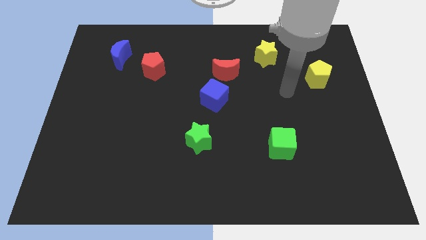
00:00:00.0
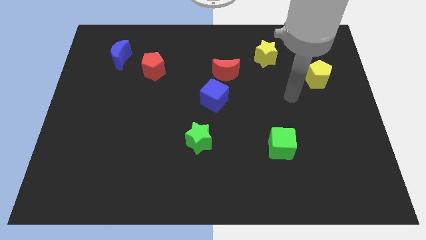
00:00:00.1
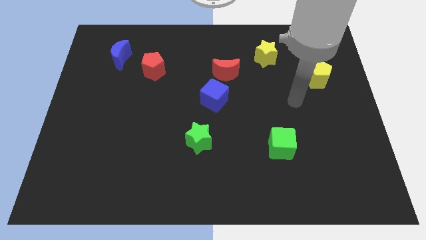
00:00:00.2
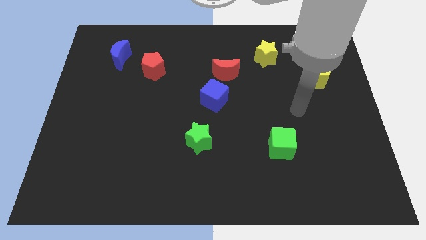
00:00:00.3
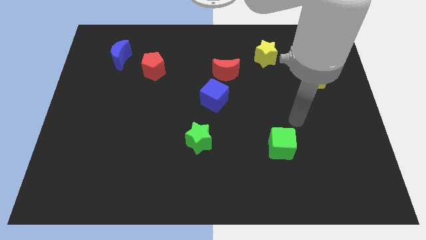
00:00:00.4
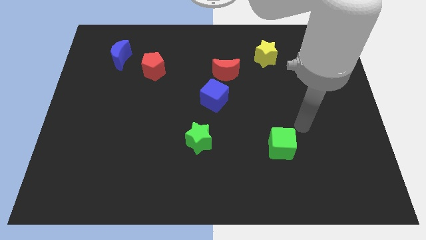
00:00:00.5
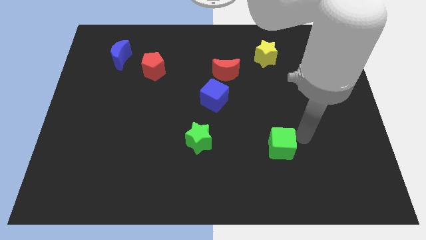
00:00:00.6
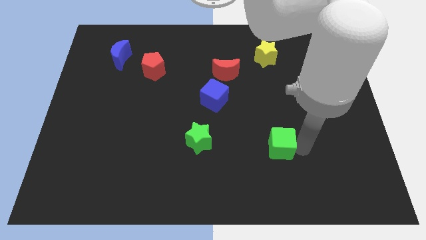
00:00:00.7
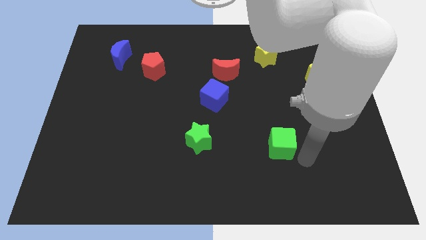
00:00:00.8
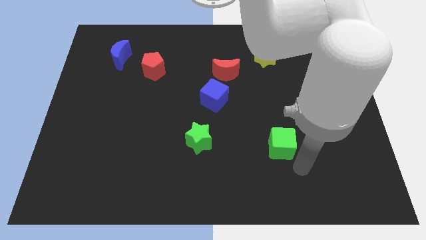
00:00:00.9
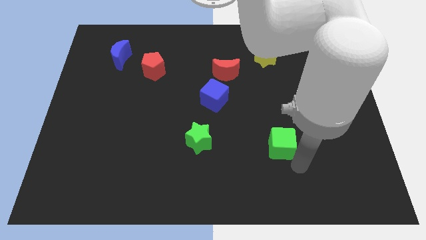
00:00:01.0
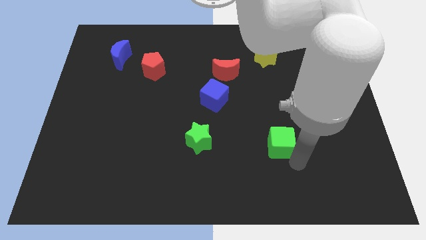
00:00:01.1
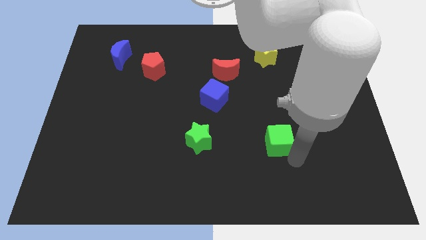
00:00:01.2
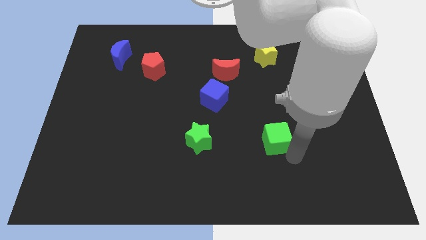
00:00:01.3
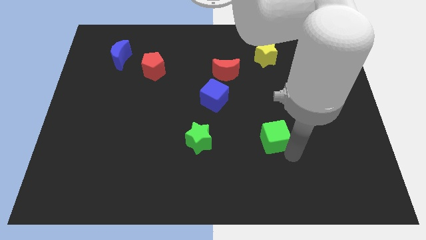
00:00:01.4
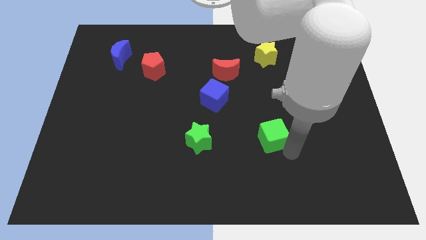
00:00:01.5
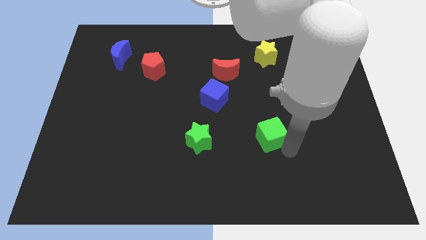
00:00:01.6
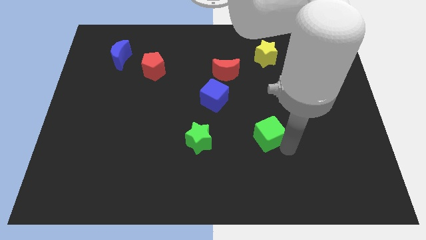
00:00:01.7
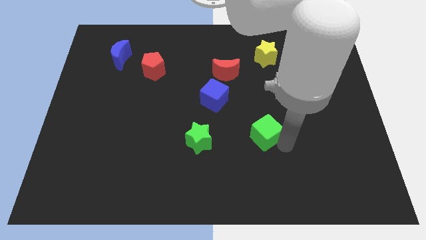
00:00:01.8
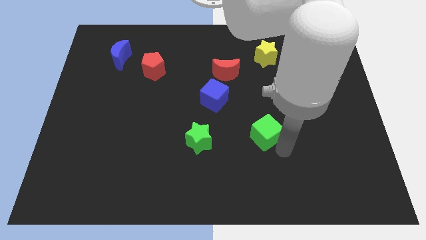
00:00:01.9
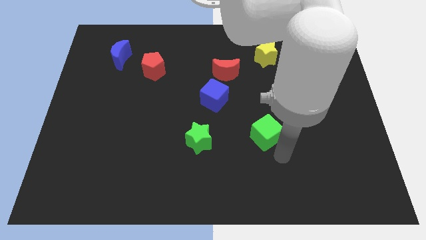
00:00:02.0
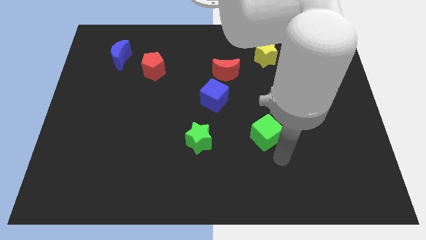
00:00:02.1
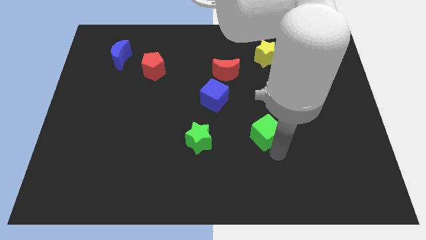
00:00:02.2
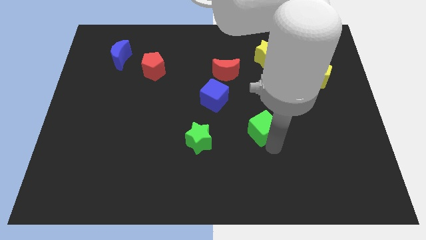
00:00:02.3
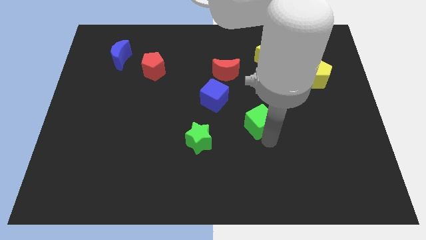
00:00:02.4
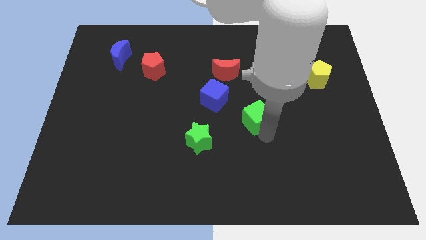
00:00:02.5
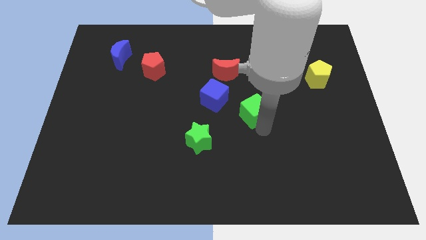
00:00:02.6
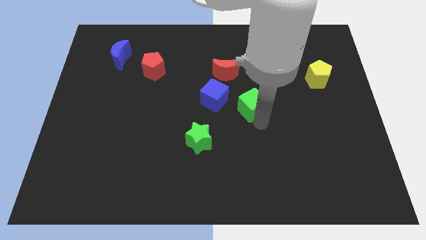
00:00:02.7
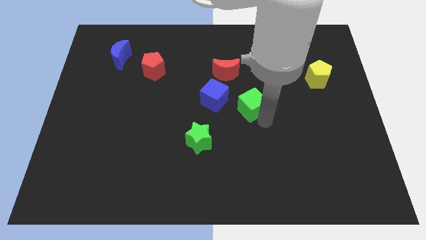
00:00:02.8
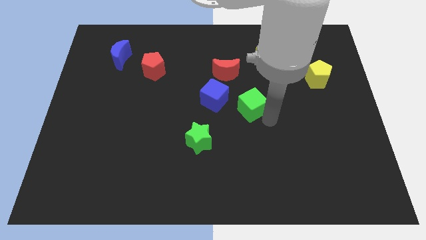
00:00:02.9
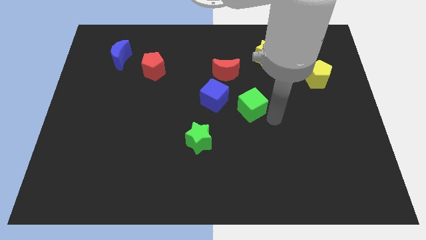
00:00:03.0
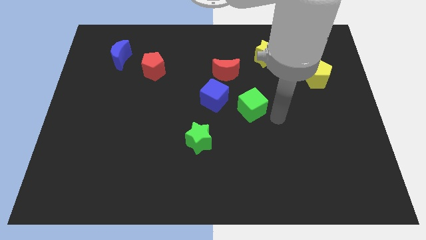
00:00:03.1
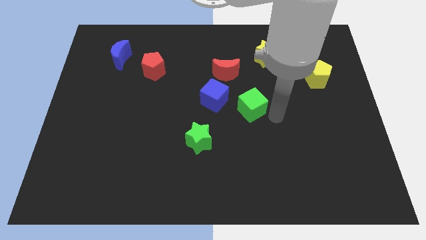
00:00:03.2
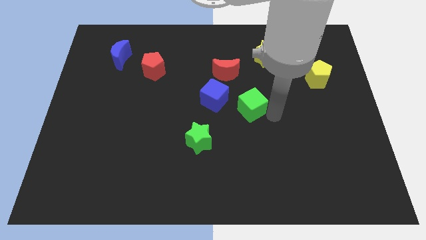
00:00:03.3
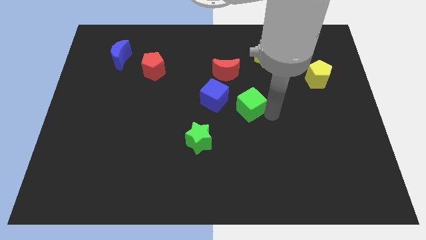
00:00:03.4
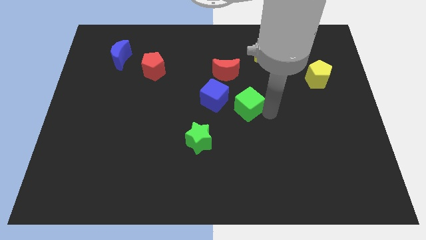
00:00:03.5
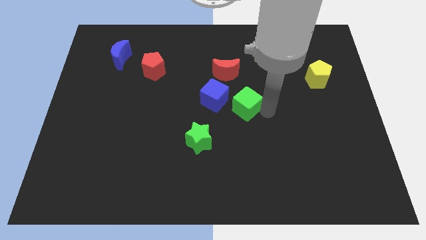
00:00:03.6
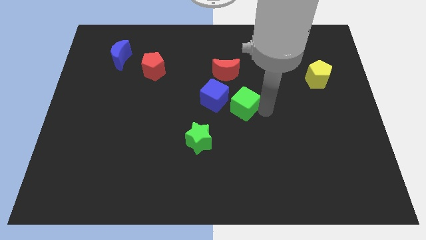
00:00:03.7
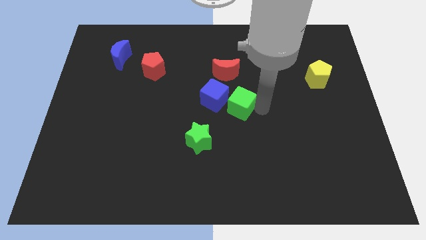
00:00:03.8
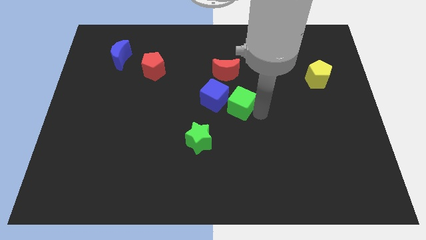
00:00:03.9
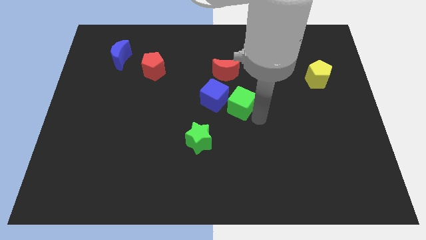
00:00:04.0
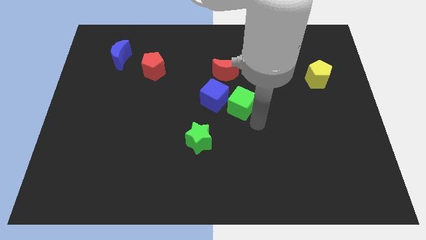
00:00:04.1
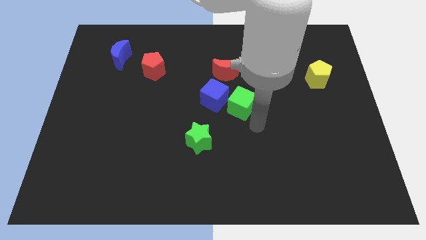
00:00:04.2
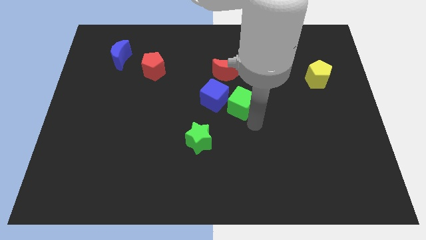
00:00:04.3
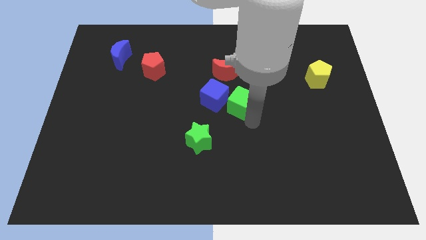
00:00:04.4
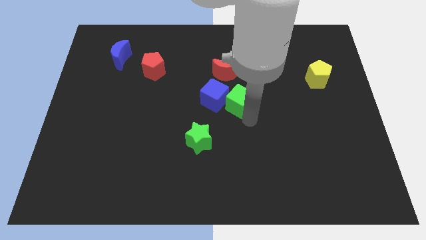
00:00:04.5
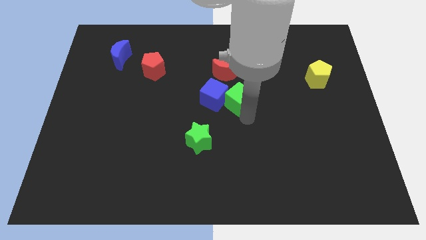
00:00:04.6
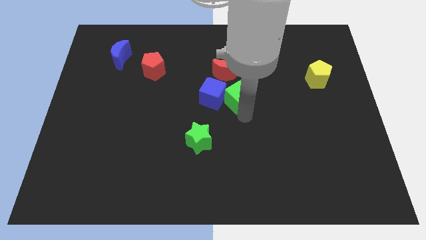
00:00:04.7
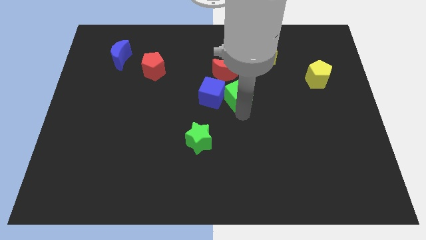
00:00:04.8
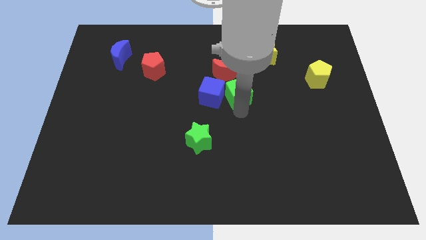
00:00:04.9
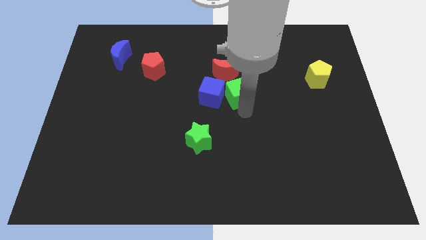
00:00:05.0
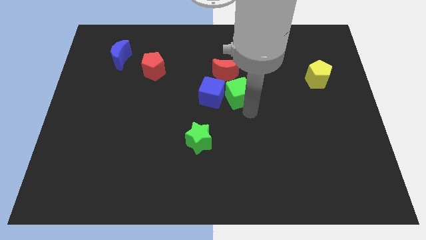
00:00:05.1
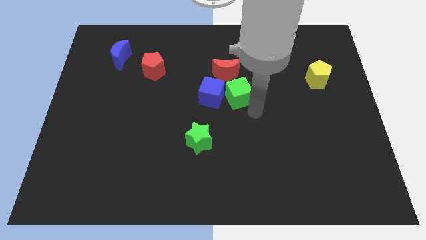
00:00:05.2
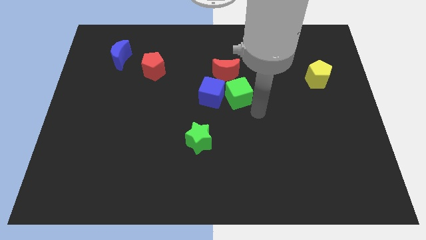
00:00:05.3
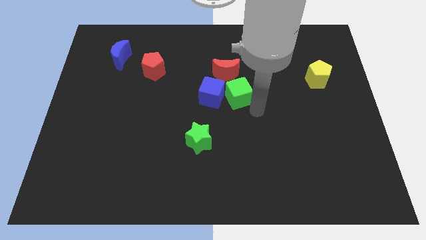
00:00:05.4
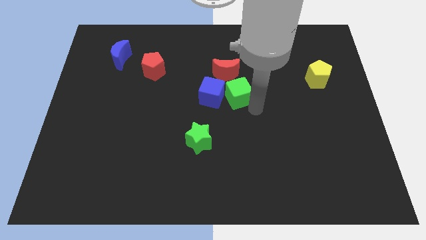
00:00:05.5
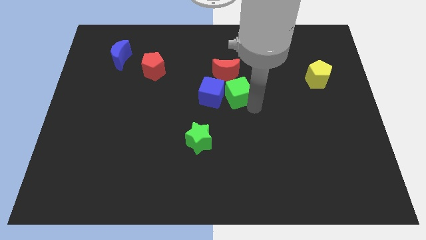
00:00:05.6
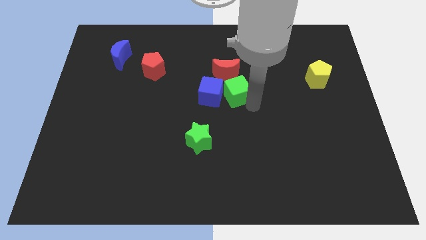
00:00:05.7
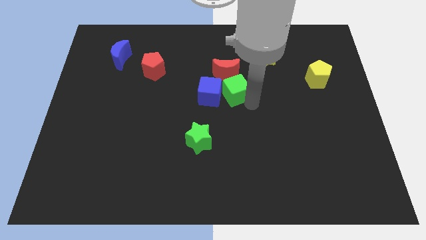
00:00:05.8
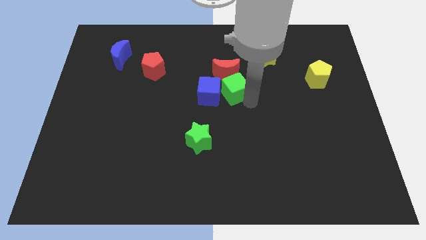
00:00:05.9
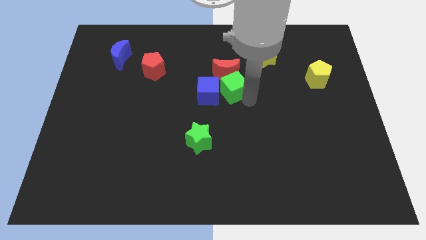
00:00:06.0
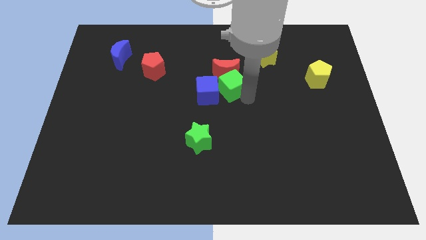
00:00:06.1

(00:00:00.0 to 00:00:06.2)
slide the green cube diagonally down and to the left of the red moon

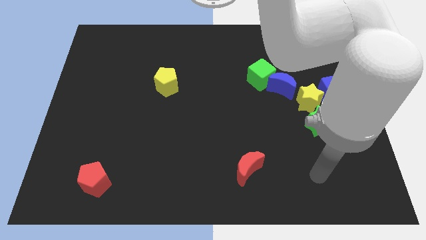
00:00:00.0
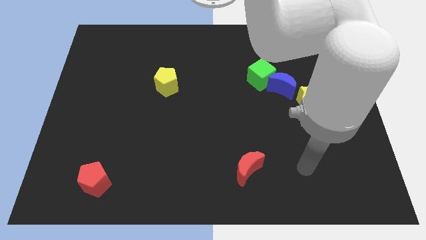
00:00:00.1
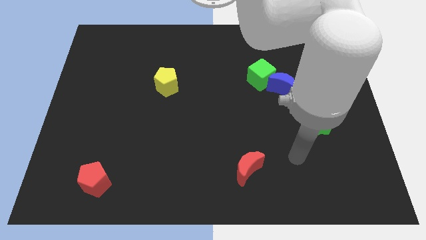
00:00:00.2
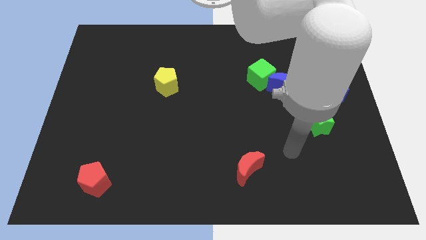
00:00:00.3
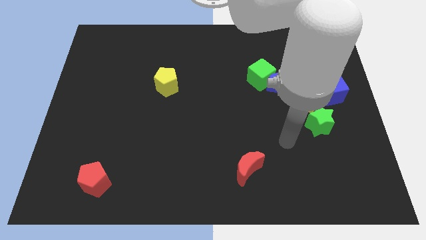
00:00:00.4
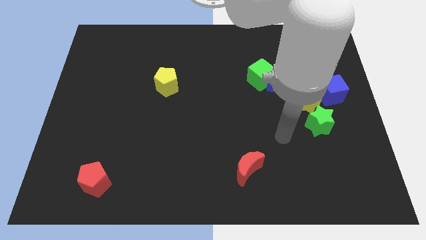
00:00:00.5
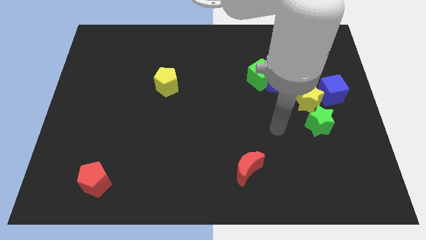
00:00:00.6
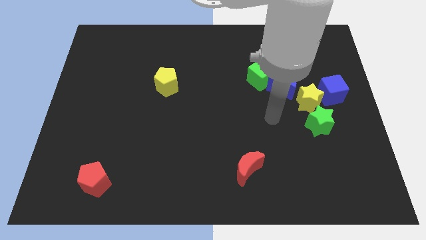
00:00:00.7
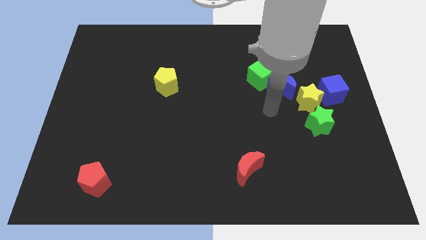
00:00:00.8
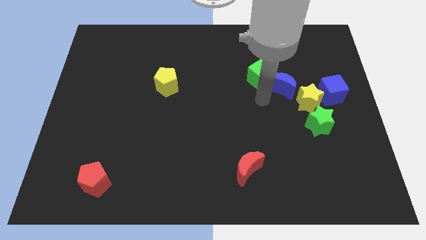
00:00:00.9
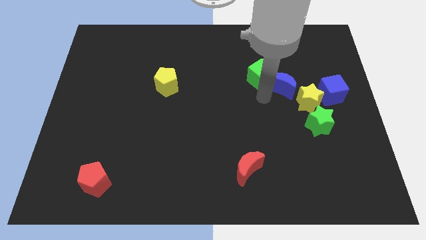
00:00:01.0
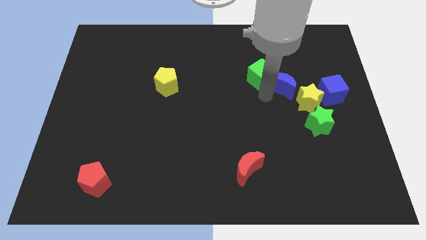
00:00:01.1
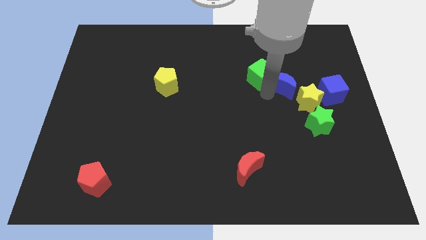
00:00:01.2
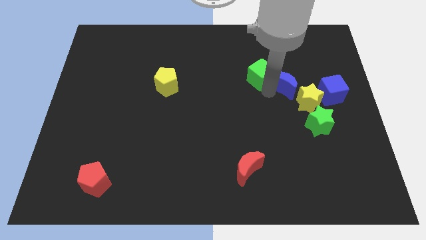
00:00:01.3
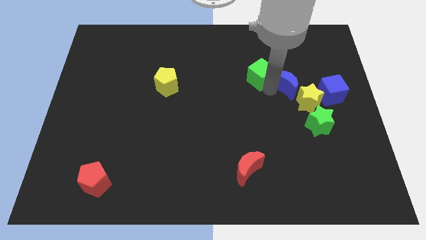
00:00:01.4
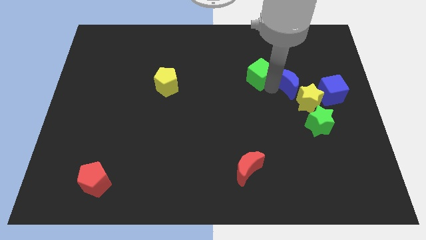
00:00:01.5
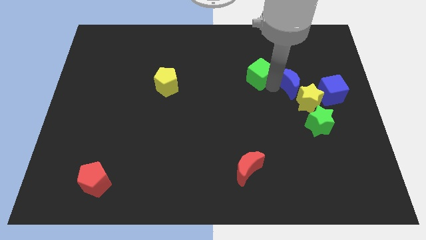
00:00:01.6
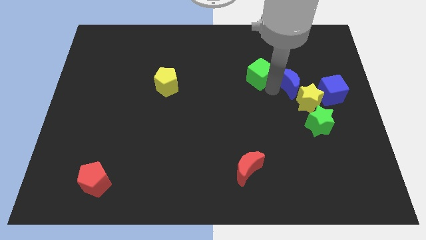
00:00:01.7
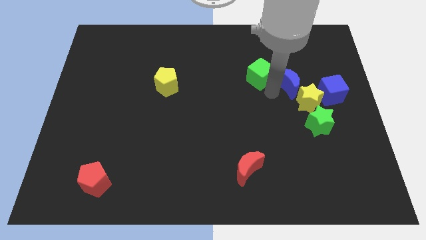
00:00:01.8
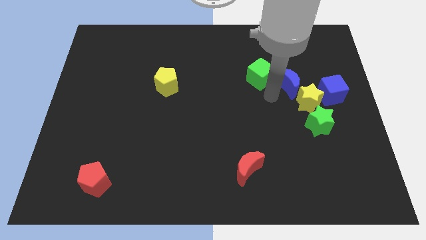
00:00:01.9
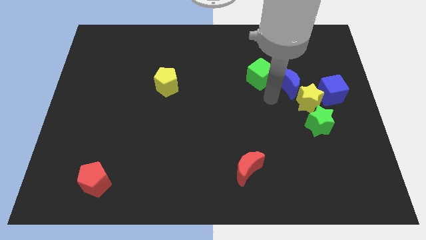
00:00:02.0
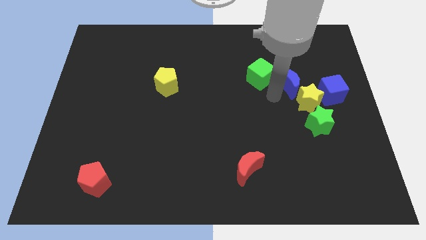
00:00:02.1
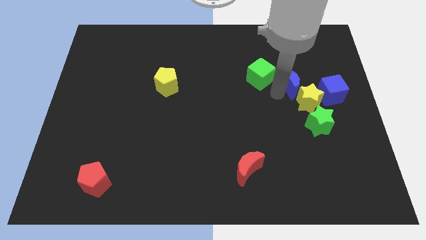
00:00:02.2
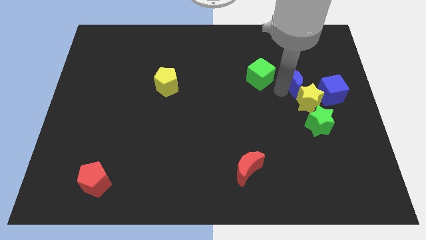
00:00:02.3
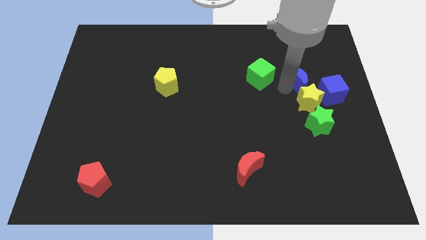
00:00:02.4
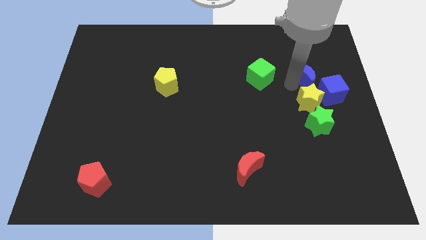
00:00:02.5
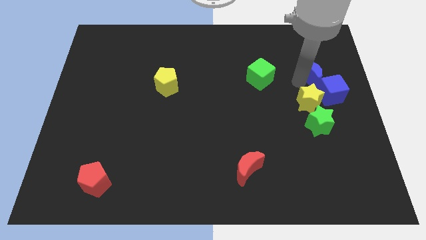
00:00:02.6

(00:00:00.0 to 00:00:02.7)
push the blue moon to the top of the blue cube
